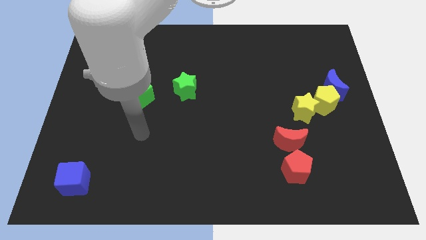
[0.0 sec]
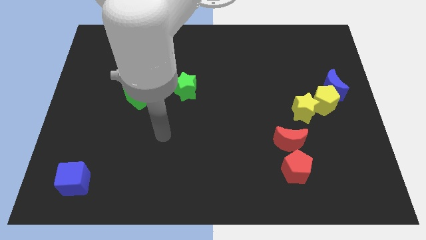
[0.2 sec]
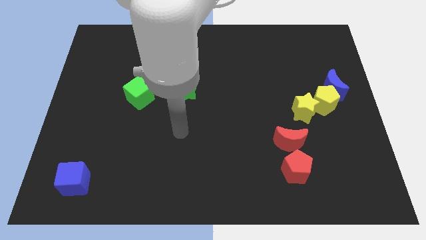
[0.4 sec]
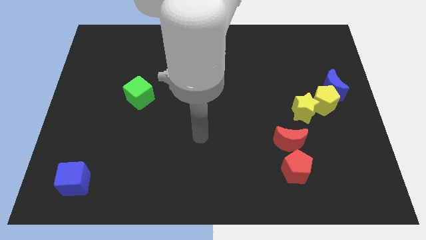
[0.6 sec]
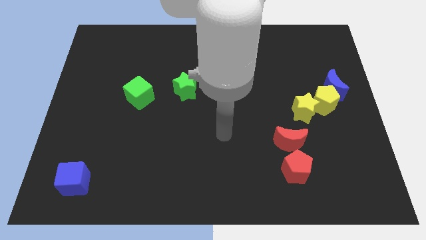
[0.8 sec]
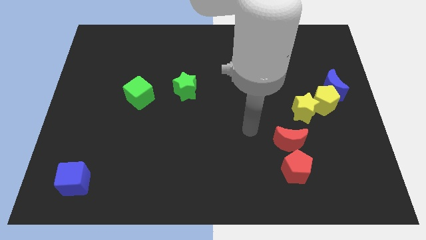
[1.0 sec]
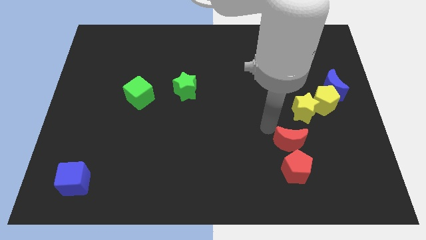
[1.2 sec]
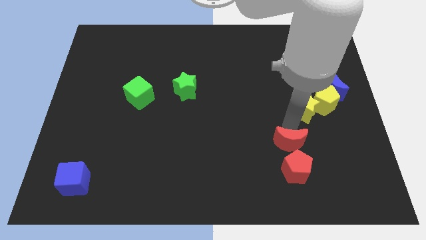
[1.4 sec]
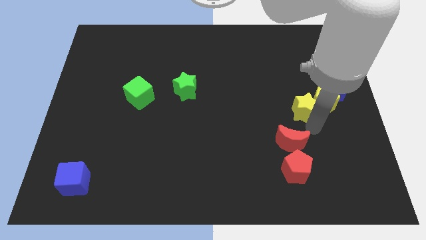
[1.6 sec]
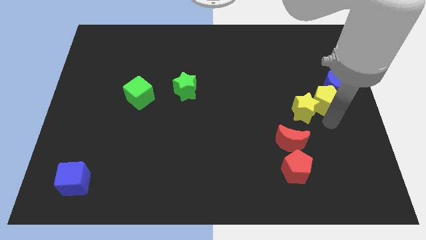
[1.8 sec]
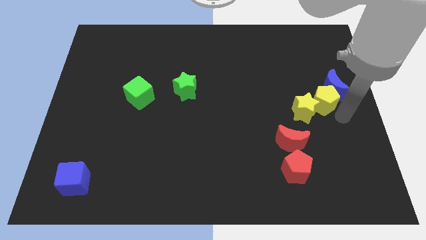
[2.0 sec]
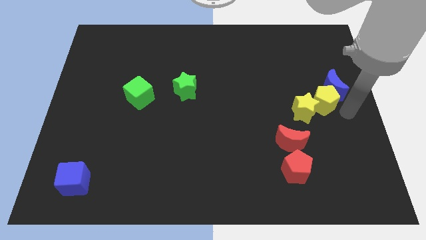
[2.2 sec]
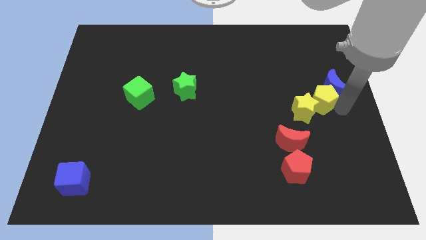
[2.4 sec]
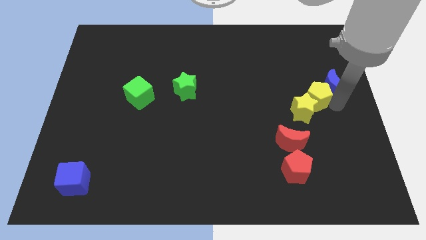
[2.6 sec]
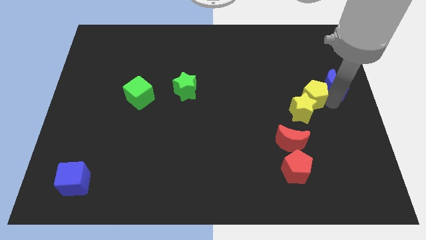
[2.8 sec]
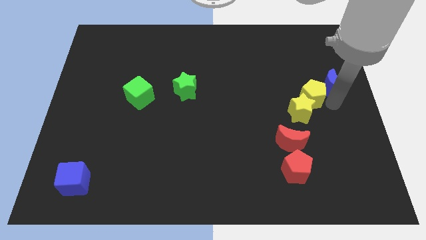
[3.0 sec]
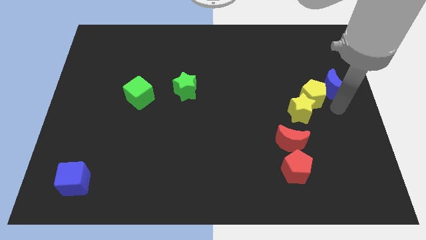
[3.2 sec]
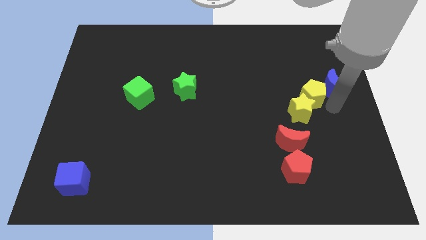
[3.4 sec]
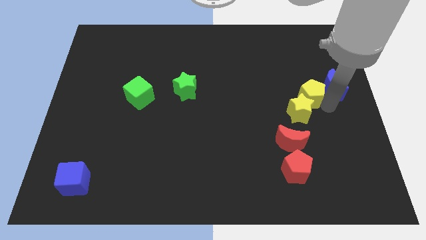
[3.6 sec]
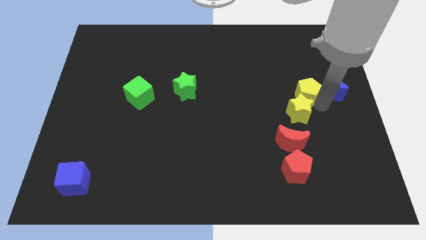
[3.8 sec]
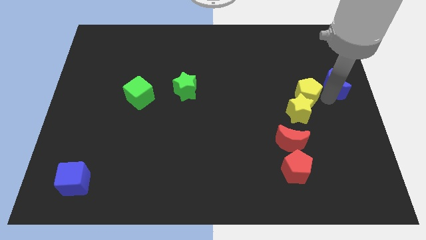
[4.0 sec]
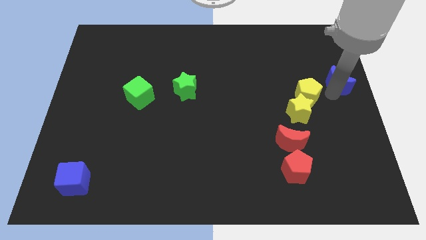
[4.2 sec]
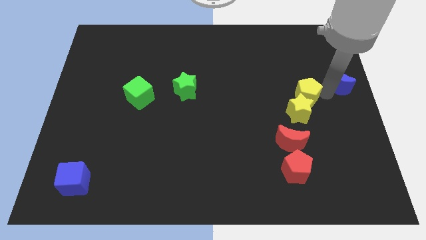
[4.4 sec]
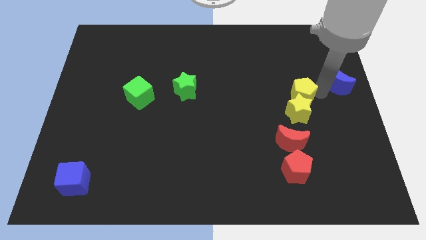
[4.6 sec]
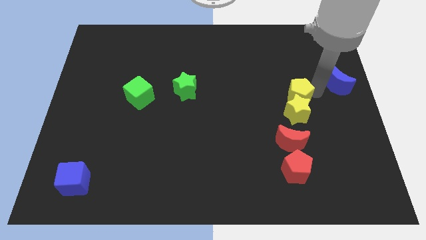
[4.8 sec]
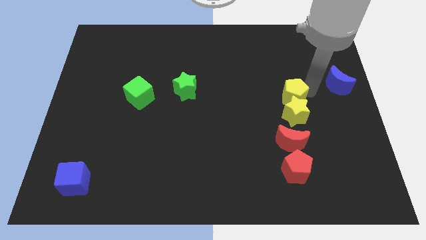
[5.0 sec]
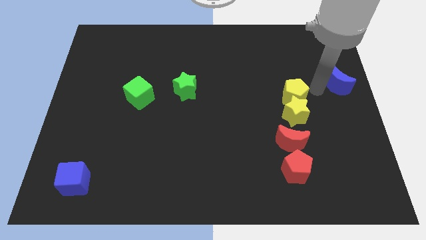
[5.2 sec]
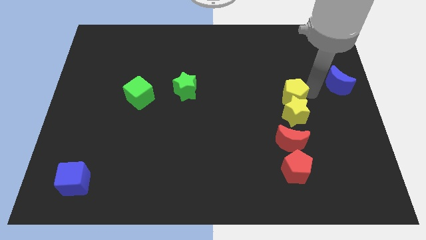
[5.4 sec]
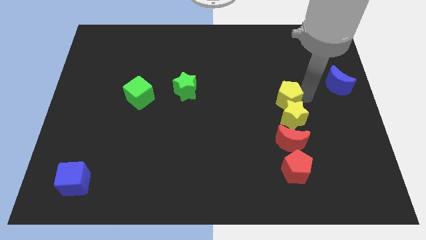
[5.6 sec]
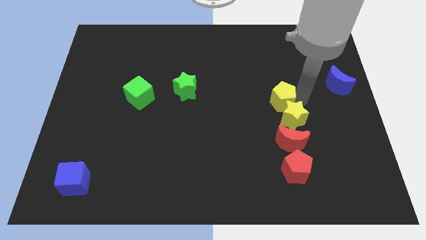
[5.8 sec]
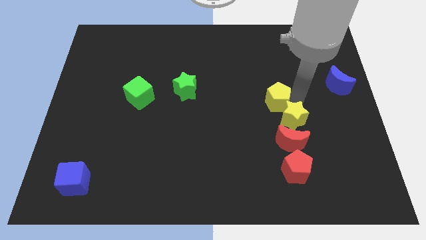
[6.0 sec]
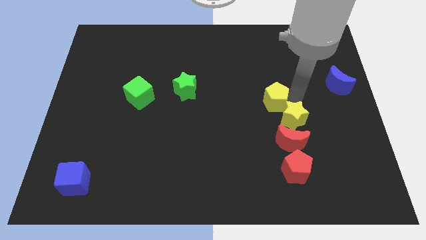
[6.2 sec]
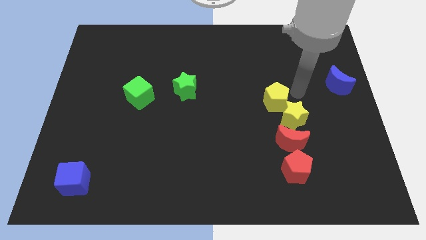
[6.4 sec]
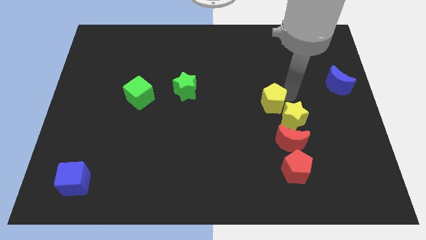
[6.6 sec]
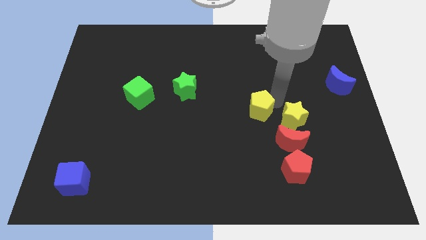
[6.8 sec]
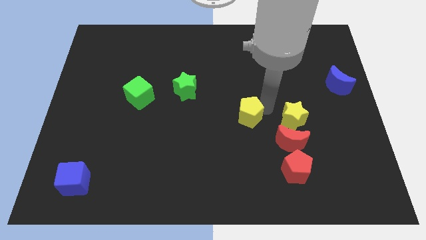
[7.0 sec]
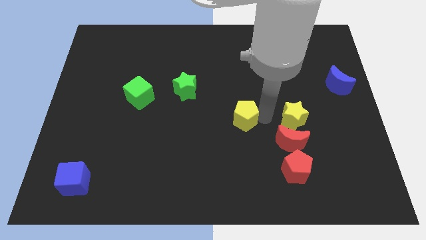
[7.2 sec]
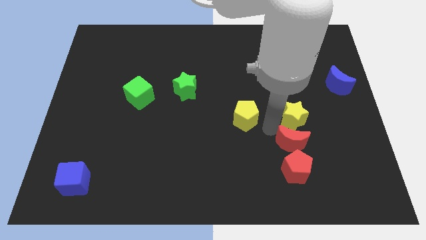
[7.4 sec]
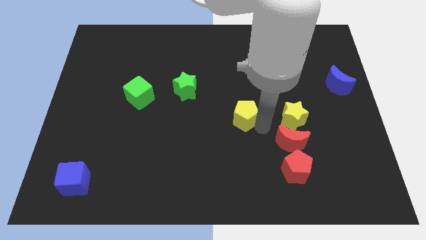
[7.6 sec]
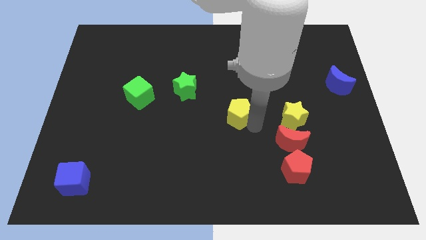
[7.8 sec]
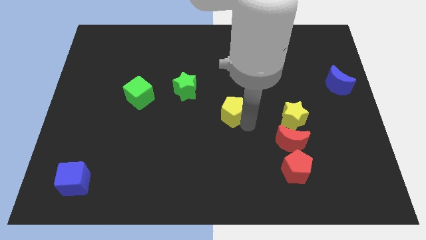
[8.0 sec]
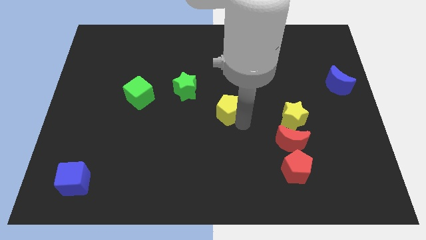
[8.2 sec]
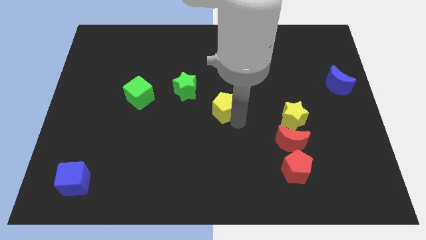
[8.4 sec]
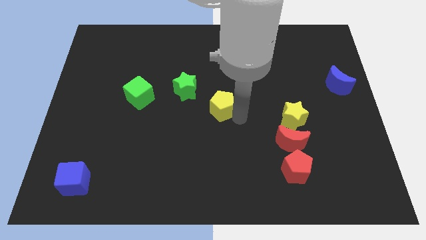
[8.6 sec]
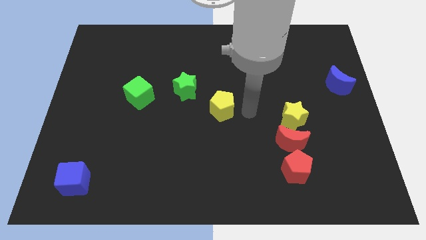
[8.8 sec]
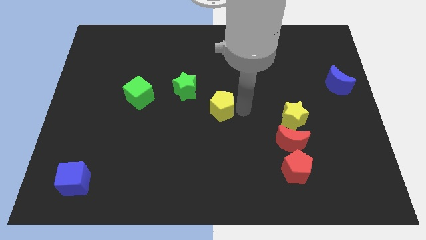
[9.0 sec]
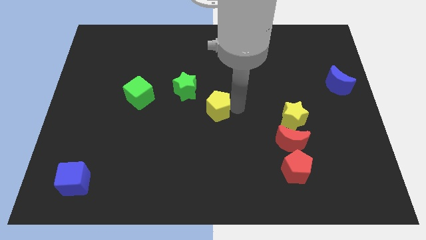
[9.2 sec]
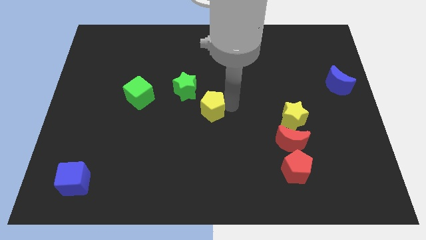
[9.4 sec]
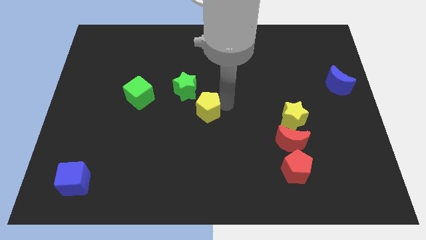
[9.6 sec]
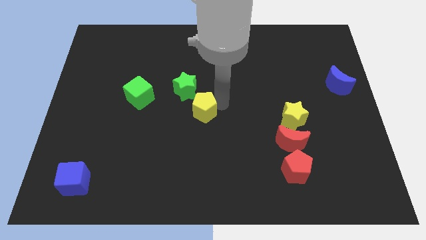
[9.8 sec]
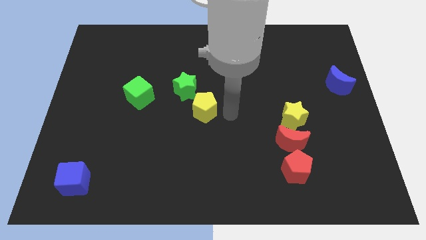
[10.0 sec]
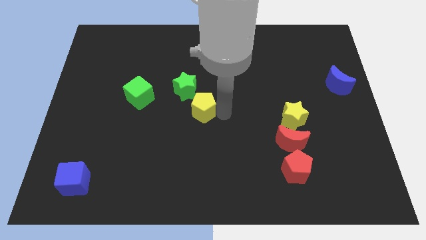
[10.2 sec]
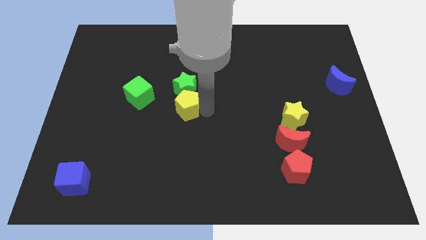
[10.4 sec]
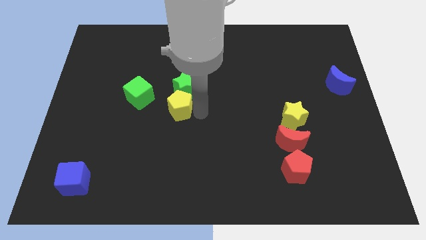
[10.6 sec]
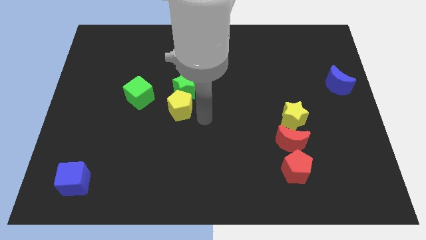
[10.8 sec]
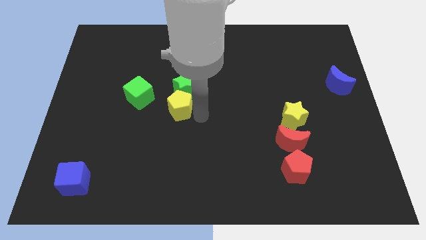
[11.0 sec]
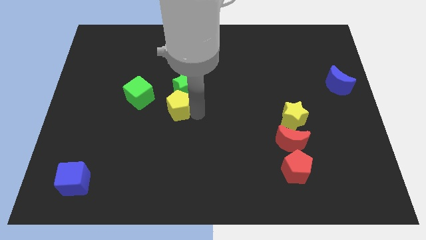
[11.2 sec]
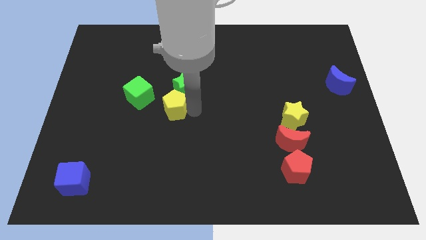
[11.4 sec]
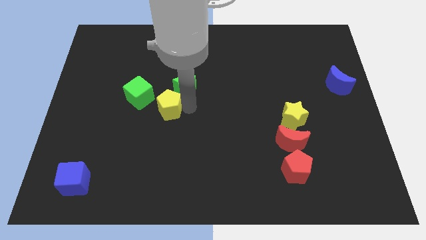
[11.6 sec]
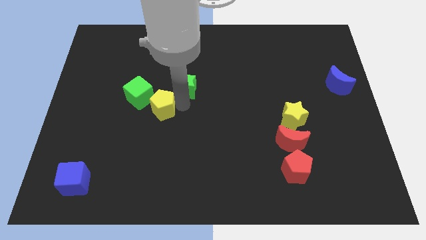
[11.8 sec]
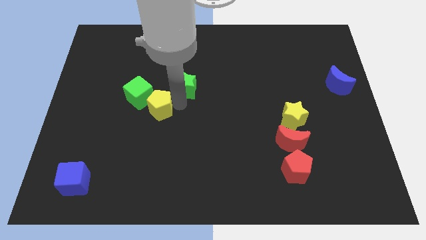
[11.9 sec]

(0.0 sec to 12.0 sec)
move the yellow pentagon to the green cube

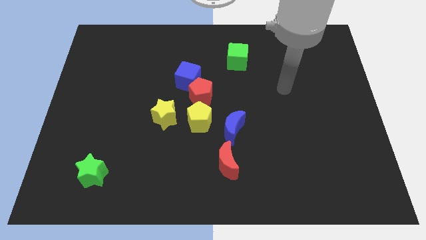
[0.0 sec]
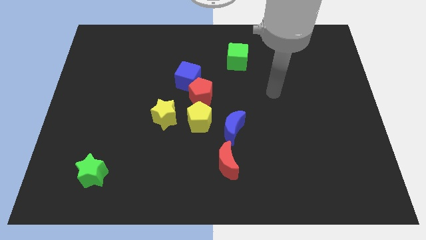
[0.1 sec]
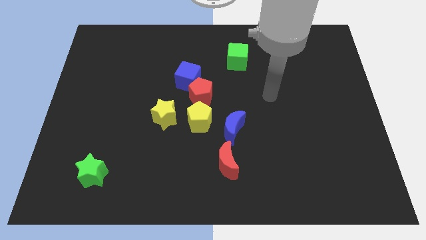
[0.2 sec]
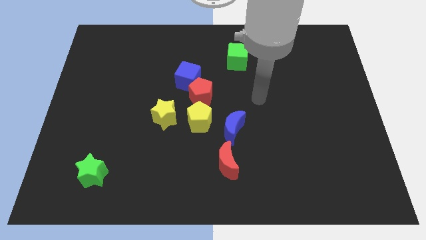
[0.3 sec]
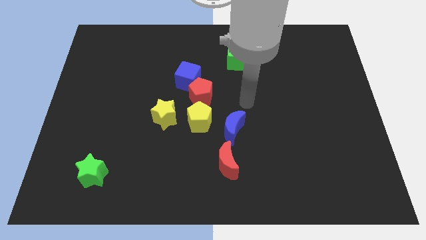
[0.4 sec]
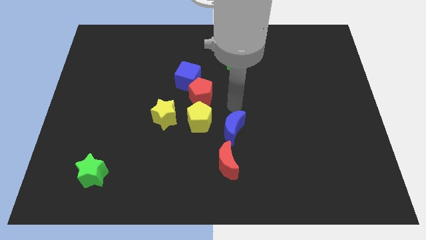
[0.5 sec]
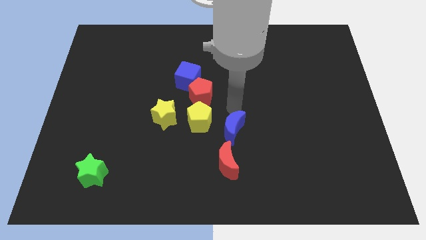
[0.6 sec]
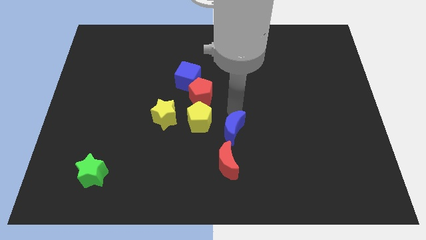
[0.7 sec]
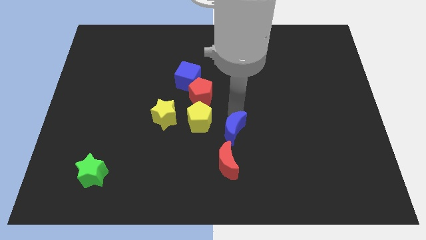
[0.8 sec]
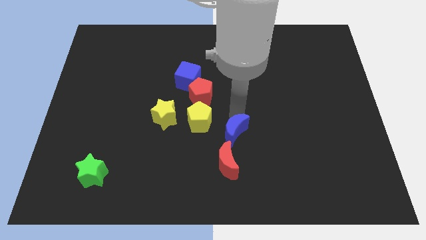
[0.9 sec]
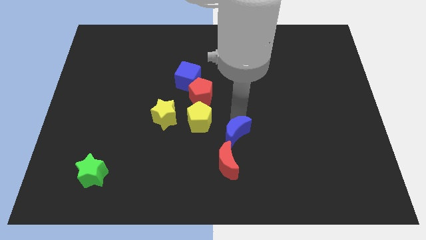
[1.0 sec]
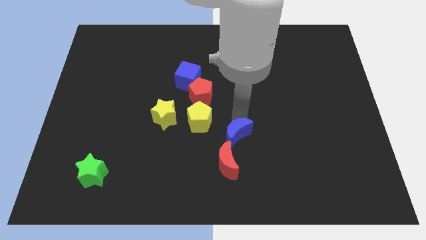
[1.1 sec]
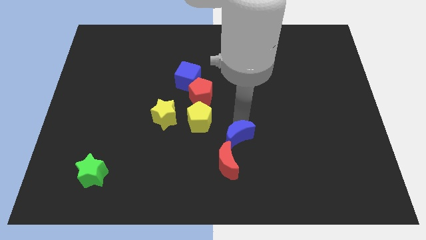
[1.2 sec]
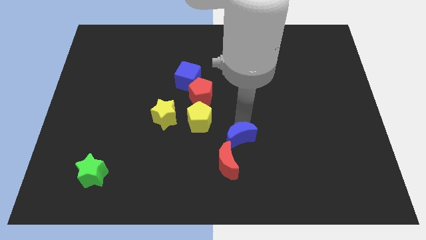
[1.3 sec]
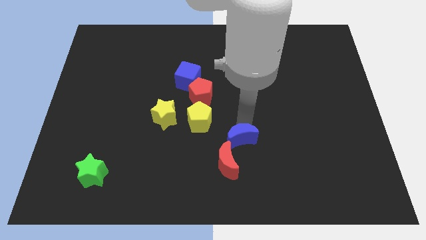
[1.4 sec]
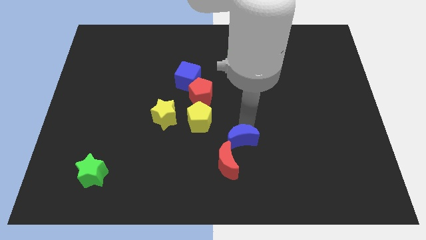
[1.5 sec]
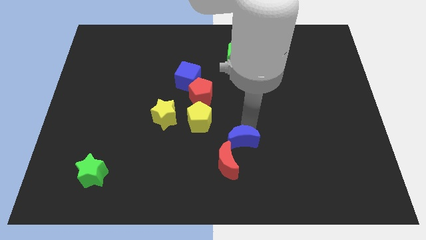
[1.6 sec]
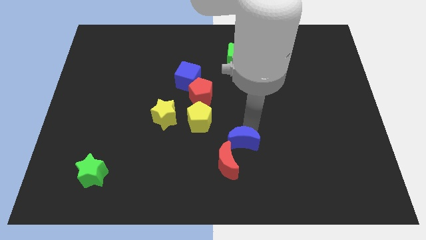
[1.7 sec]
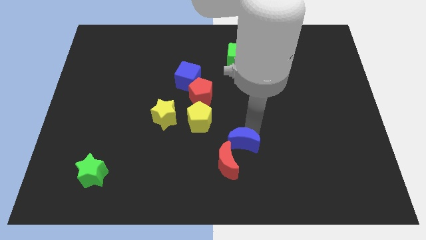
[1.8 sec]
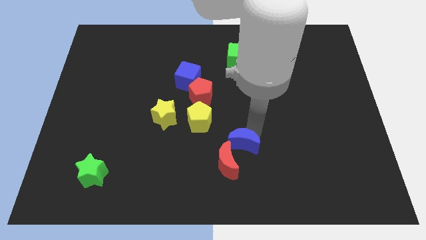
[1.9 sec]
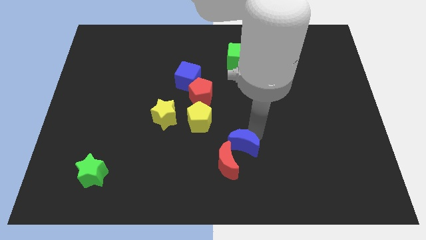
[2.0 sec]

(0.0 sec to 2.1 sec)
move the blue moon close to the red moon
